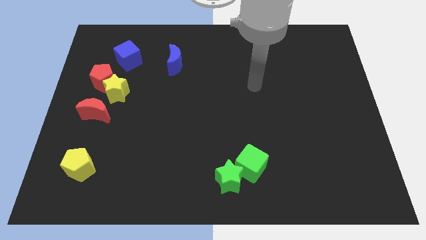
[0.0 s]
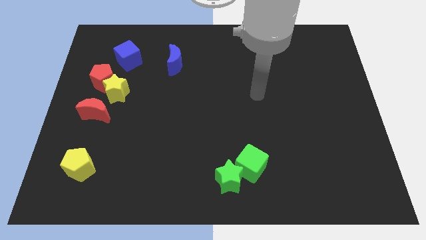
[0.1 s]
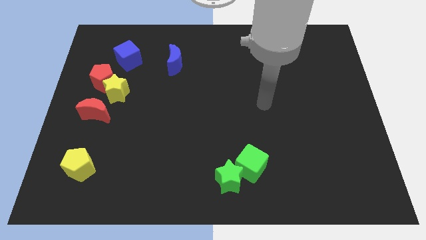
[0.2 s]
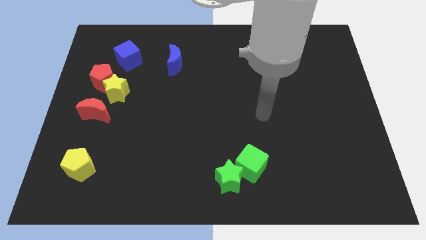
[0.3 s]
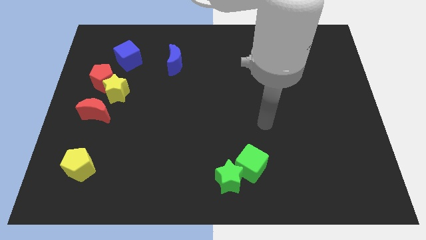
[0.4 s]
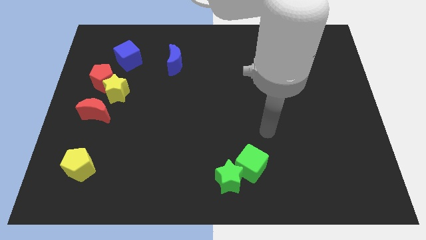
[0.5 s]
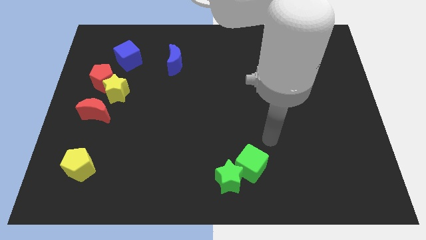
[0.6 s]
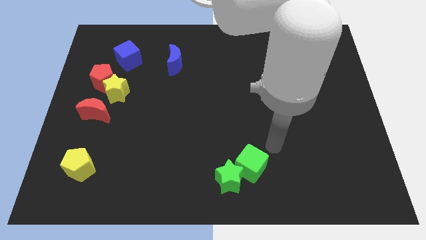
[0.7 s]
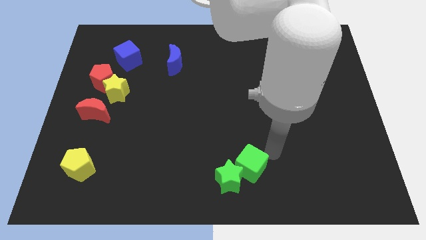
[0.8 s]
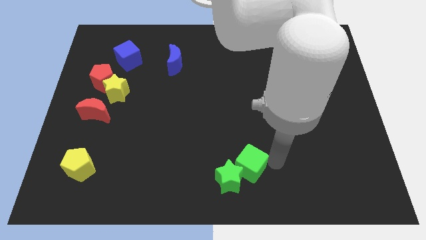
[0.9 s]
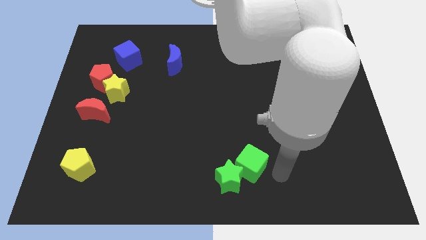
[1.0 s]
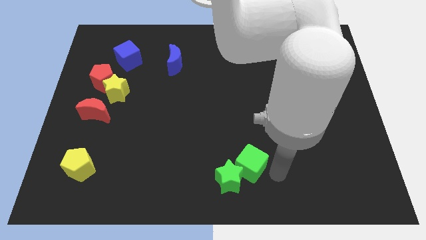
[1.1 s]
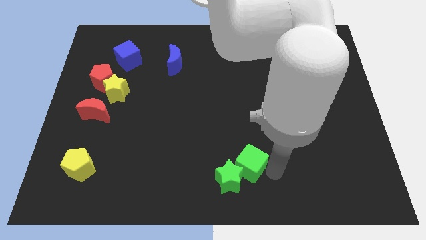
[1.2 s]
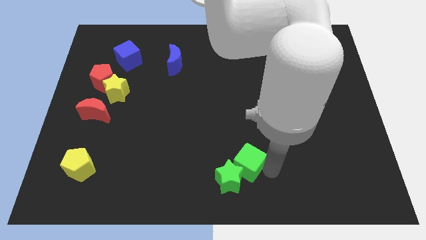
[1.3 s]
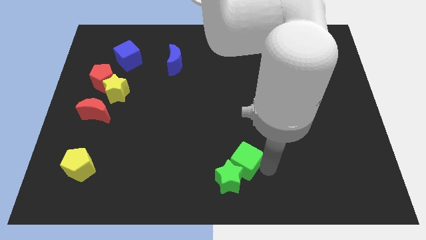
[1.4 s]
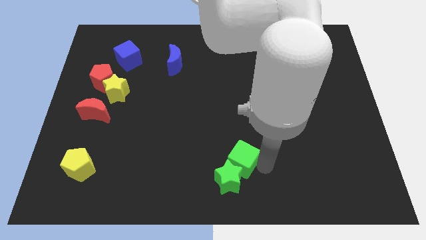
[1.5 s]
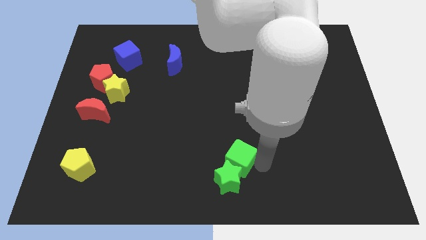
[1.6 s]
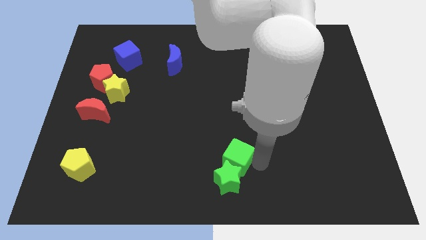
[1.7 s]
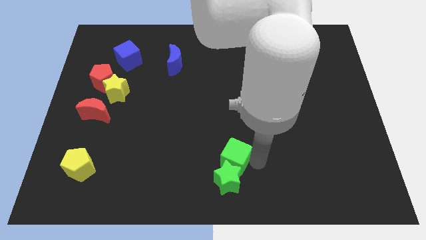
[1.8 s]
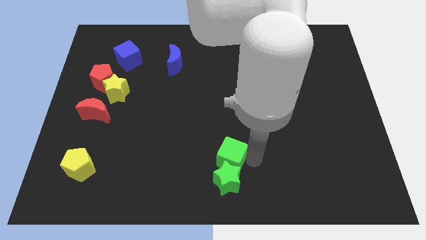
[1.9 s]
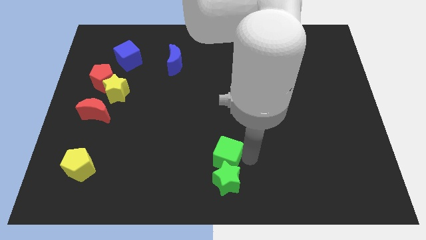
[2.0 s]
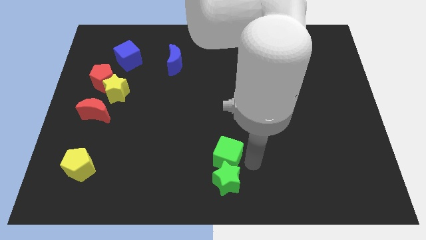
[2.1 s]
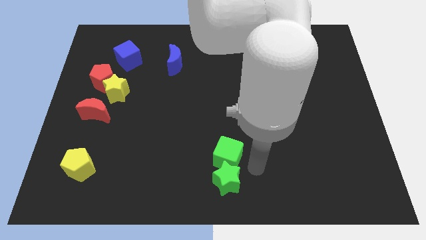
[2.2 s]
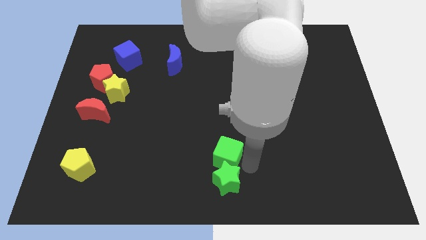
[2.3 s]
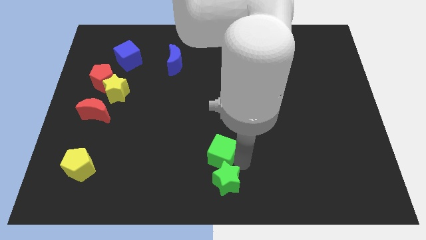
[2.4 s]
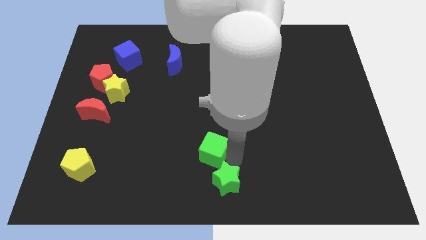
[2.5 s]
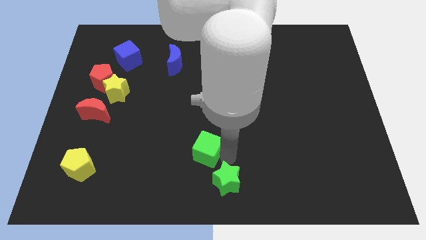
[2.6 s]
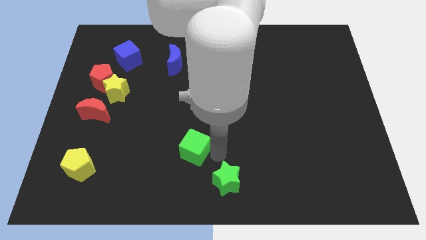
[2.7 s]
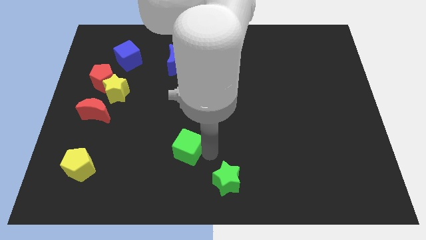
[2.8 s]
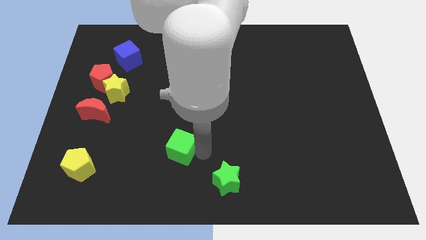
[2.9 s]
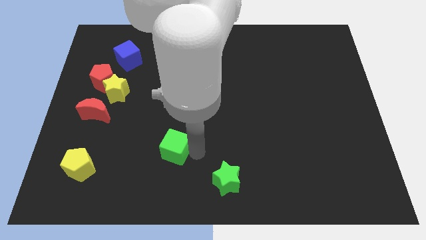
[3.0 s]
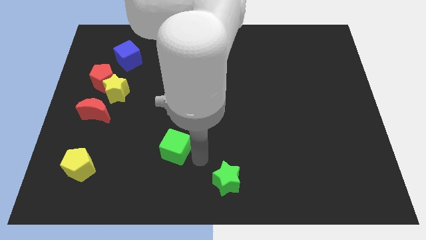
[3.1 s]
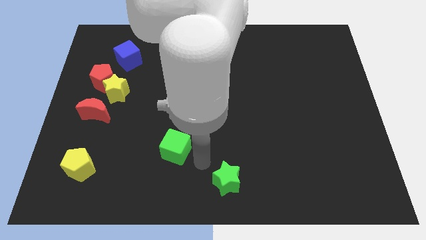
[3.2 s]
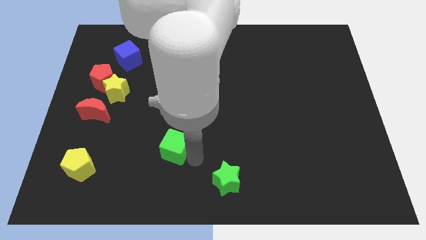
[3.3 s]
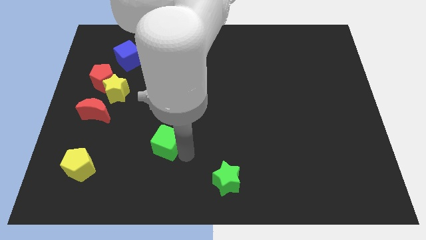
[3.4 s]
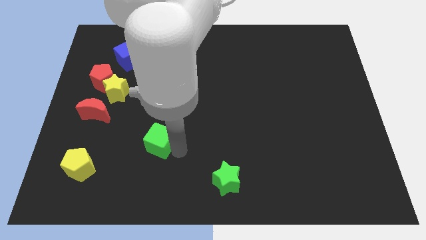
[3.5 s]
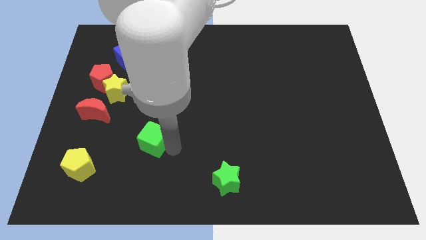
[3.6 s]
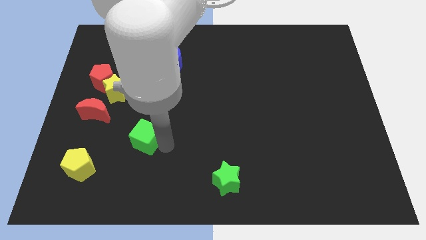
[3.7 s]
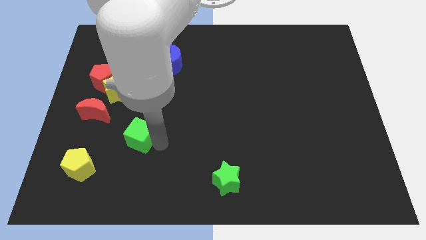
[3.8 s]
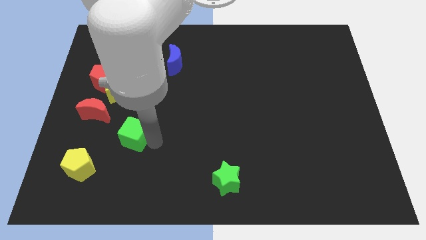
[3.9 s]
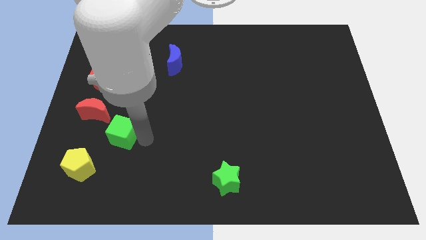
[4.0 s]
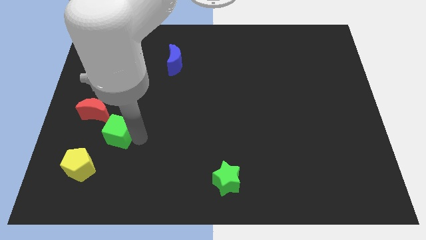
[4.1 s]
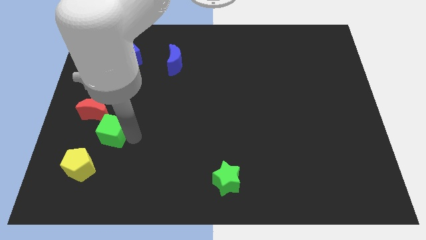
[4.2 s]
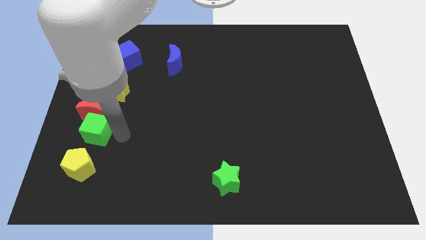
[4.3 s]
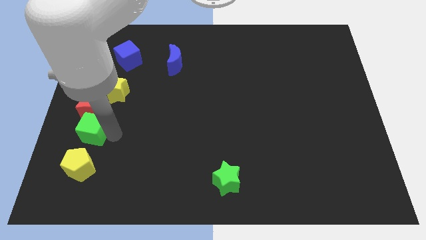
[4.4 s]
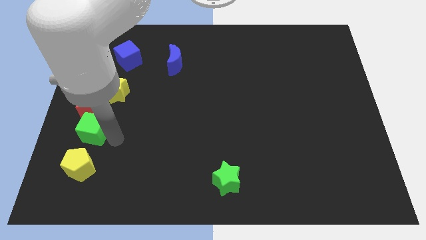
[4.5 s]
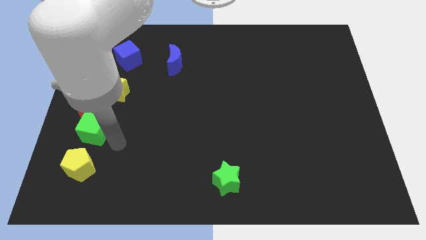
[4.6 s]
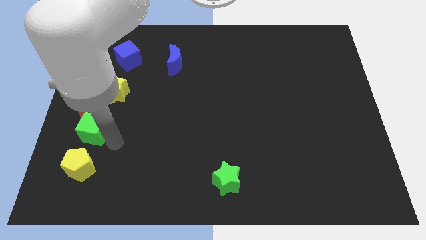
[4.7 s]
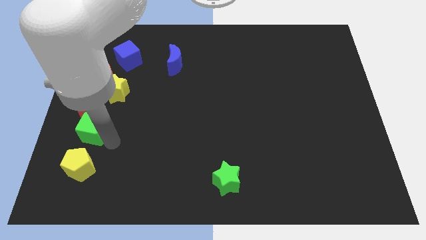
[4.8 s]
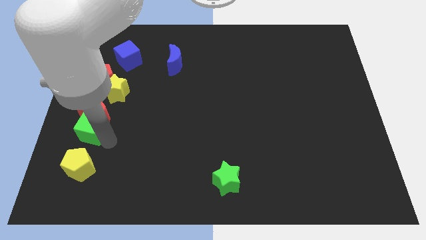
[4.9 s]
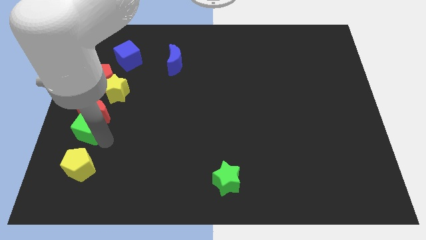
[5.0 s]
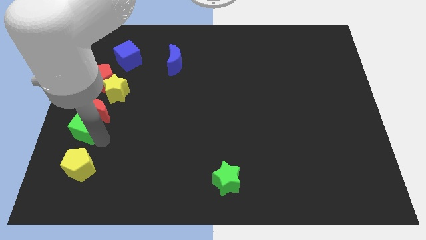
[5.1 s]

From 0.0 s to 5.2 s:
put the green cube to the center left

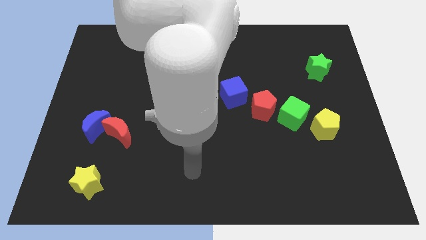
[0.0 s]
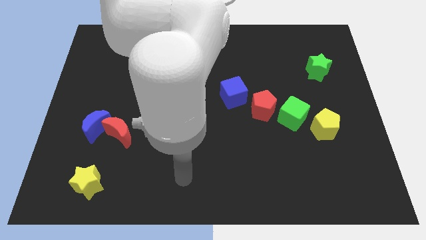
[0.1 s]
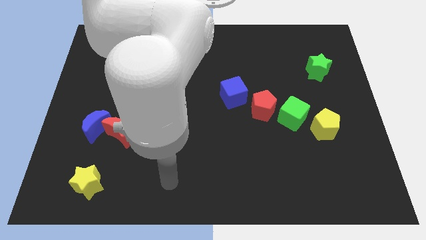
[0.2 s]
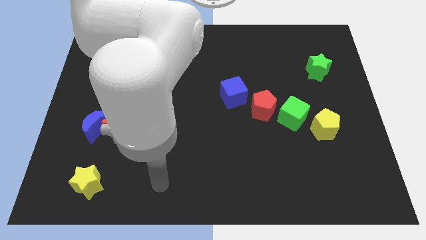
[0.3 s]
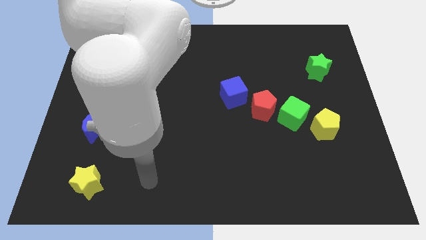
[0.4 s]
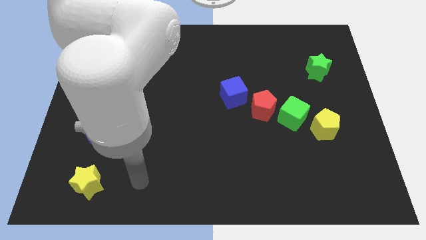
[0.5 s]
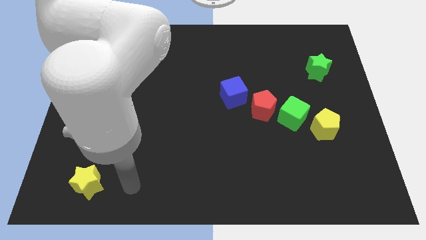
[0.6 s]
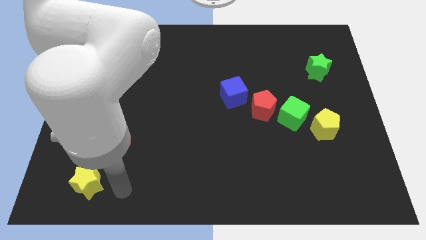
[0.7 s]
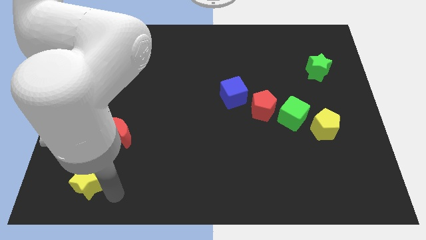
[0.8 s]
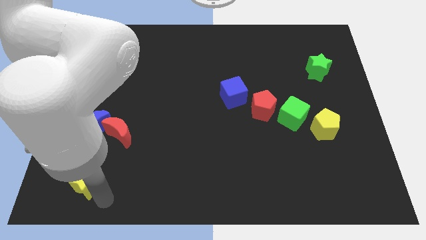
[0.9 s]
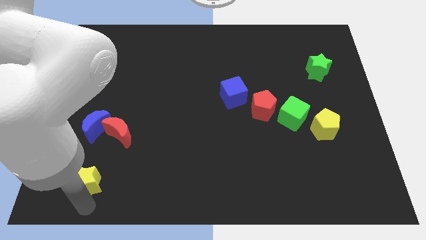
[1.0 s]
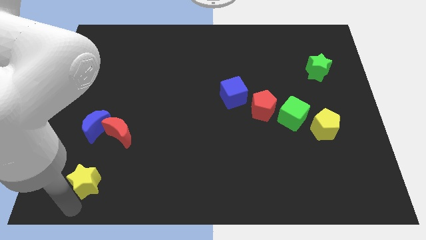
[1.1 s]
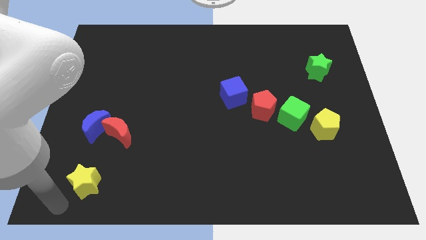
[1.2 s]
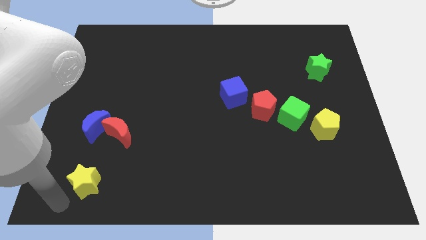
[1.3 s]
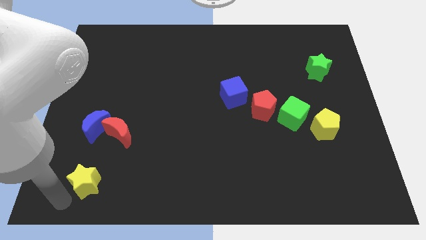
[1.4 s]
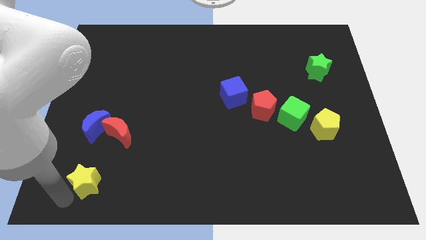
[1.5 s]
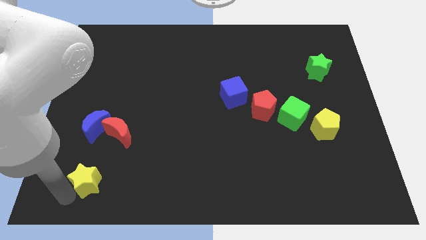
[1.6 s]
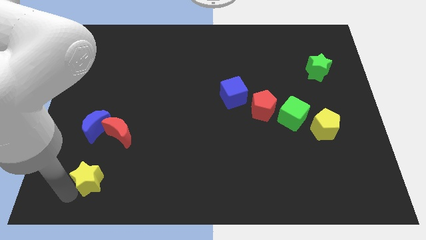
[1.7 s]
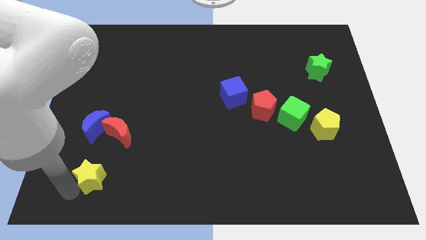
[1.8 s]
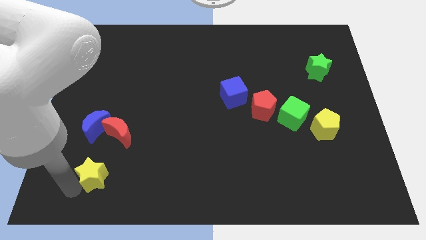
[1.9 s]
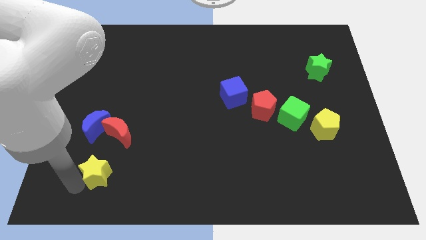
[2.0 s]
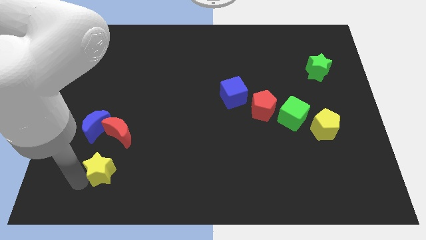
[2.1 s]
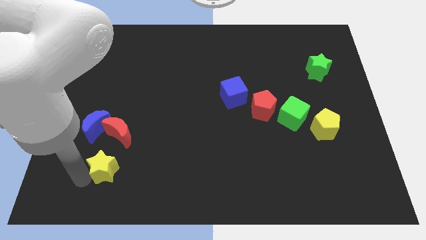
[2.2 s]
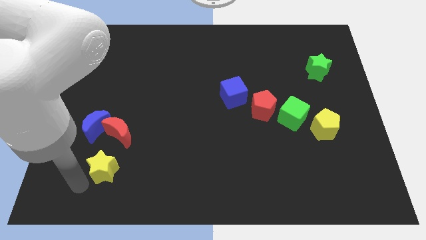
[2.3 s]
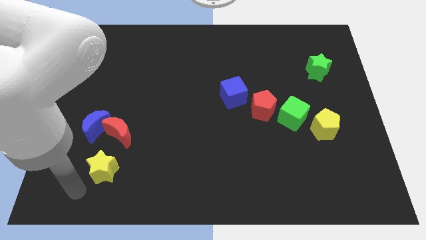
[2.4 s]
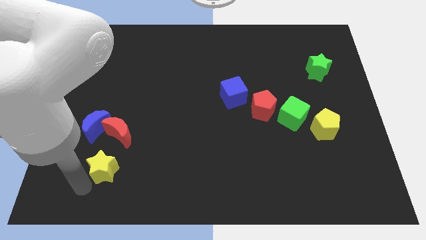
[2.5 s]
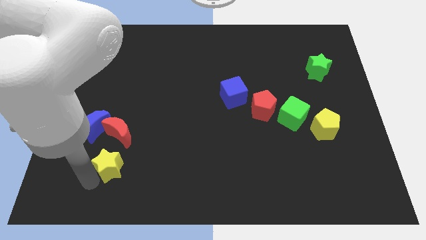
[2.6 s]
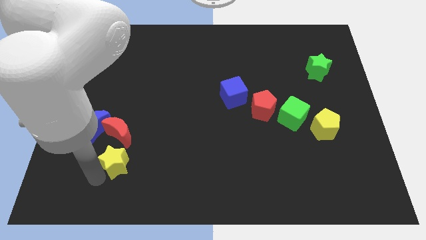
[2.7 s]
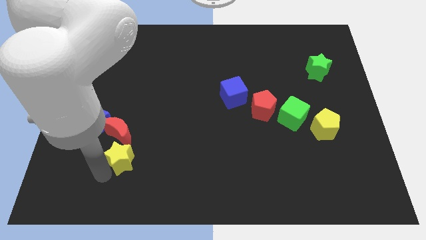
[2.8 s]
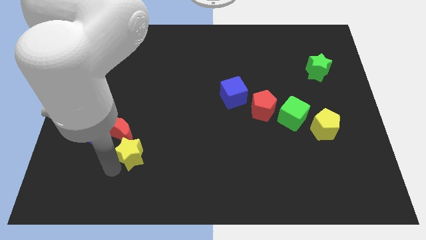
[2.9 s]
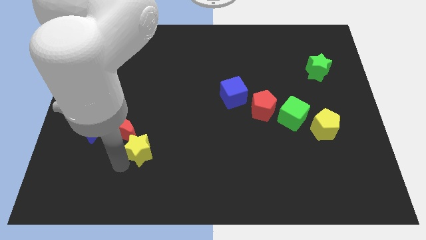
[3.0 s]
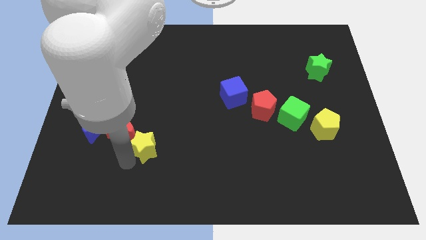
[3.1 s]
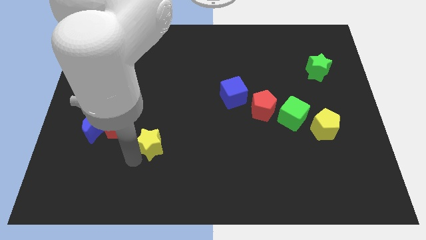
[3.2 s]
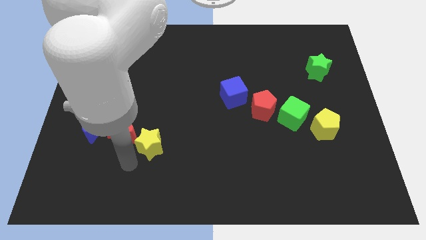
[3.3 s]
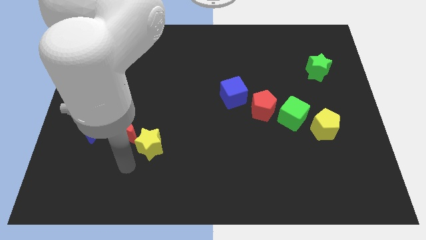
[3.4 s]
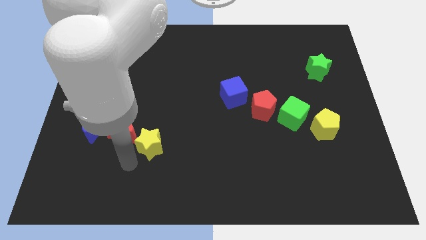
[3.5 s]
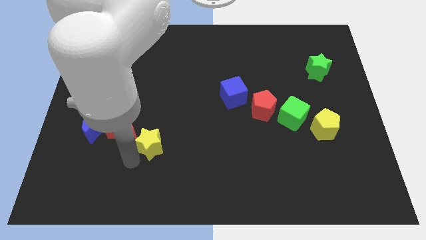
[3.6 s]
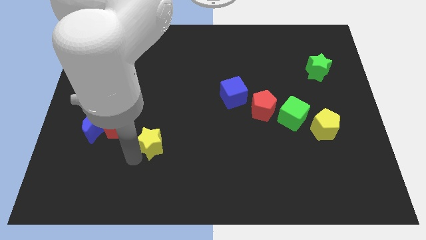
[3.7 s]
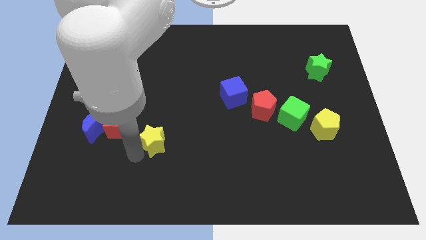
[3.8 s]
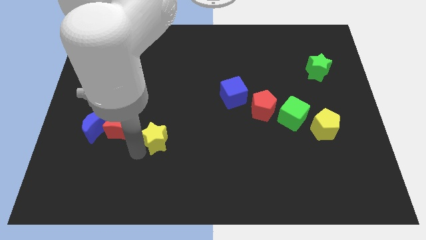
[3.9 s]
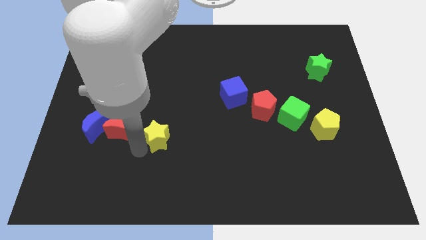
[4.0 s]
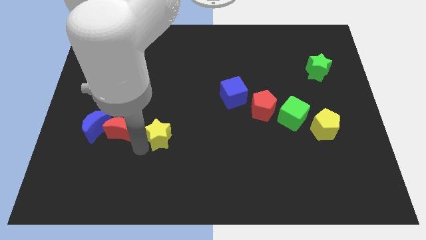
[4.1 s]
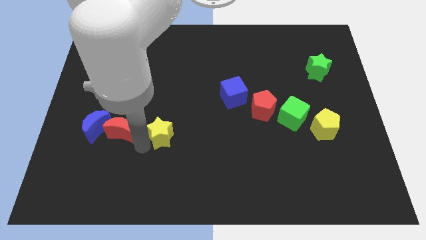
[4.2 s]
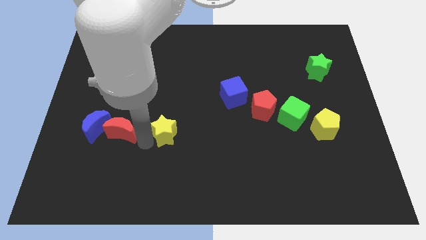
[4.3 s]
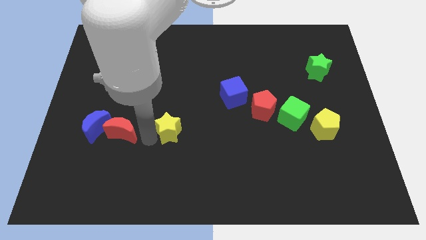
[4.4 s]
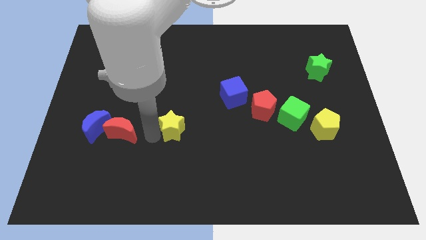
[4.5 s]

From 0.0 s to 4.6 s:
put the yellow star to the middle of the board
